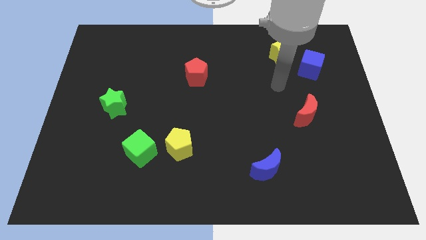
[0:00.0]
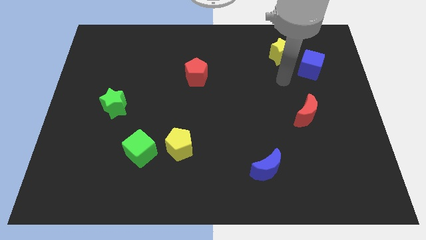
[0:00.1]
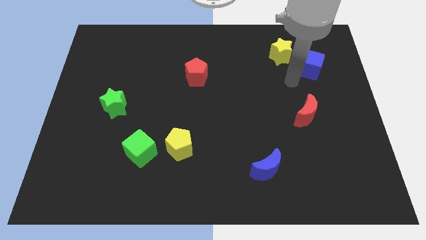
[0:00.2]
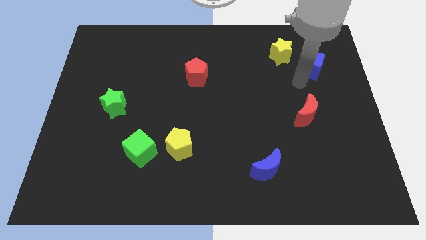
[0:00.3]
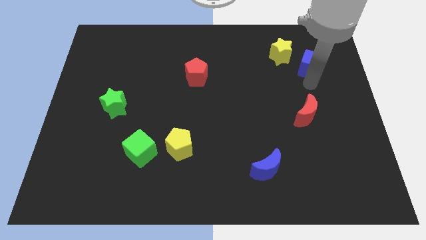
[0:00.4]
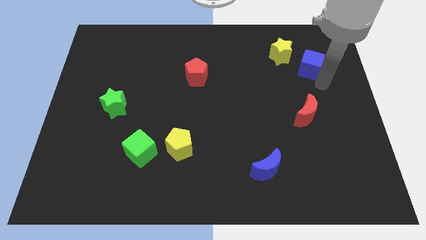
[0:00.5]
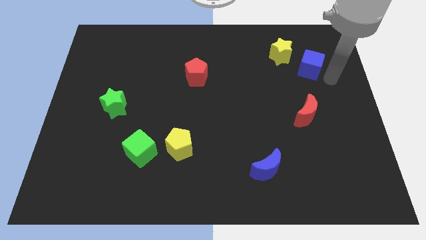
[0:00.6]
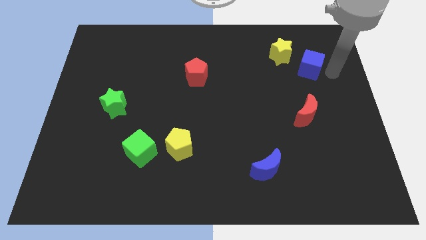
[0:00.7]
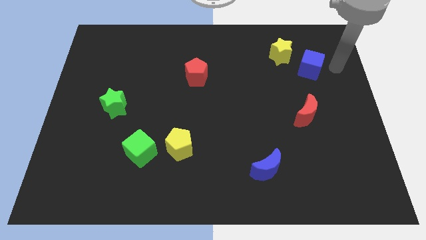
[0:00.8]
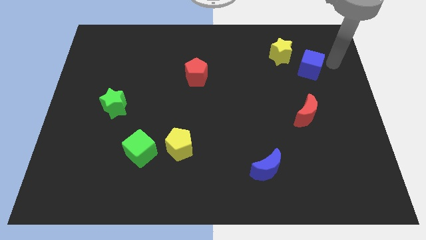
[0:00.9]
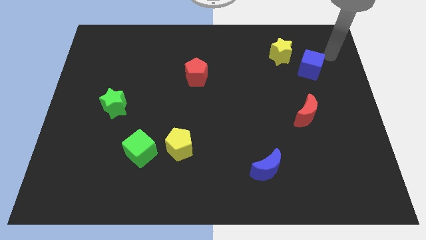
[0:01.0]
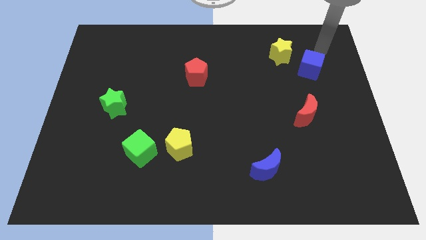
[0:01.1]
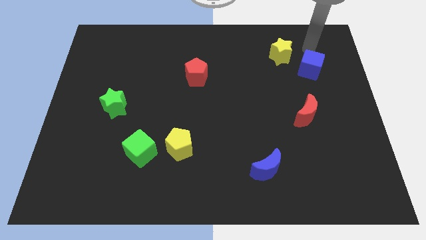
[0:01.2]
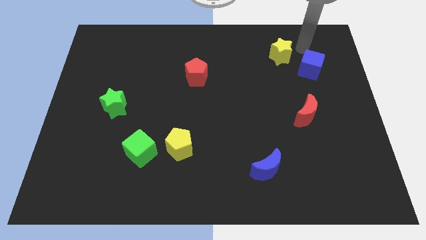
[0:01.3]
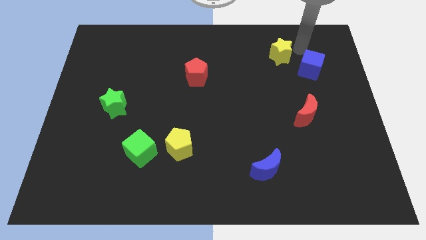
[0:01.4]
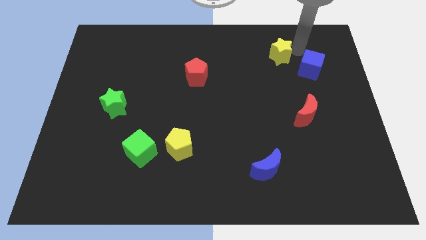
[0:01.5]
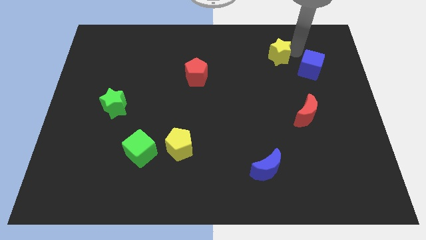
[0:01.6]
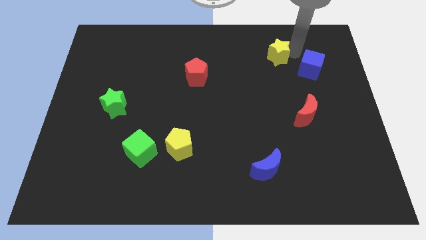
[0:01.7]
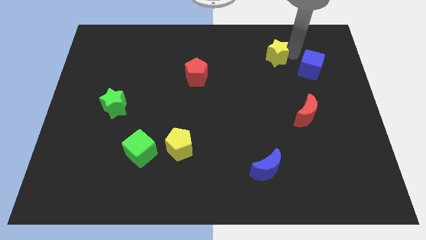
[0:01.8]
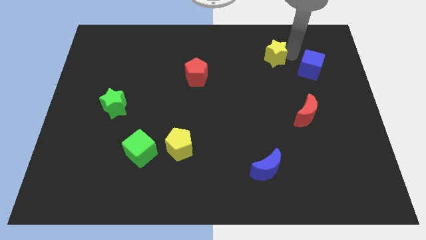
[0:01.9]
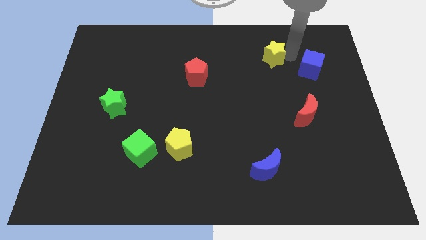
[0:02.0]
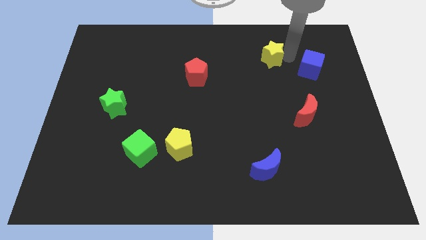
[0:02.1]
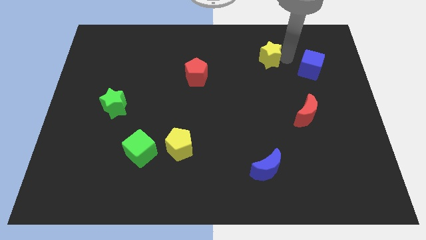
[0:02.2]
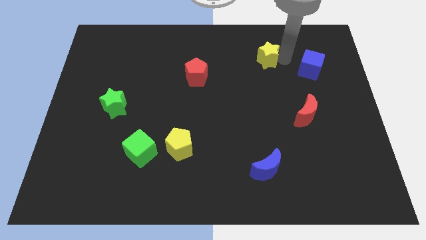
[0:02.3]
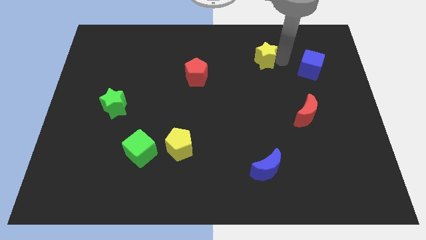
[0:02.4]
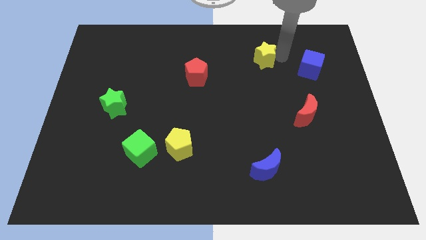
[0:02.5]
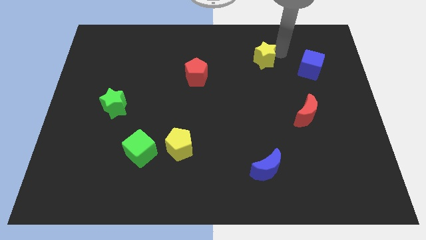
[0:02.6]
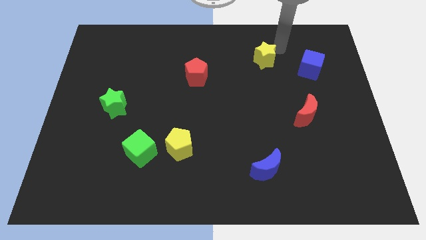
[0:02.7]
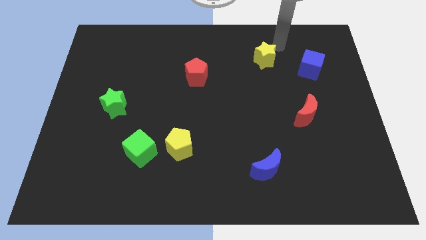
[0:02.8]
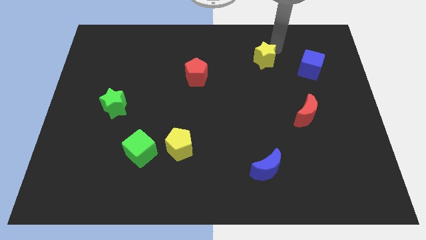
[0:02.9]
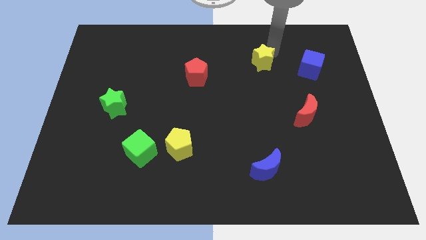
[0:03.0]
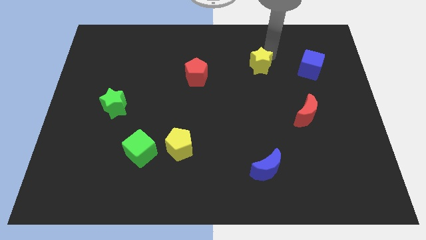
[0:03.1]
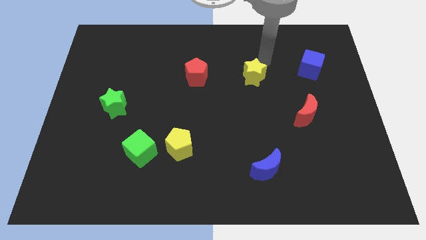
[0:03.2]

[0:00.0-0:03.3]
push the yellow star downwards and to the left diagonally slightly

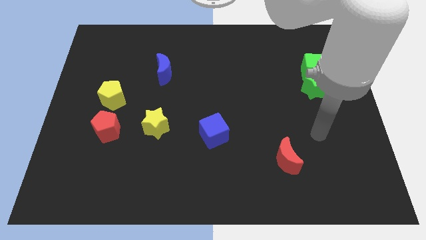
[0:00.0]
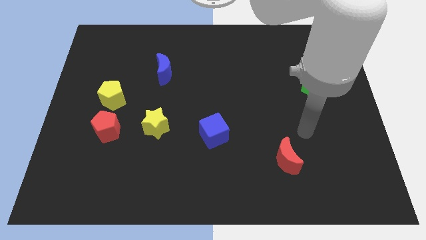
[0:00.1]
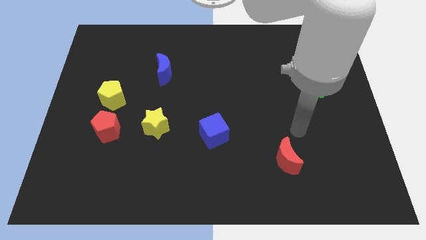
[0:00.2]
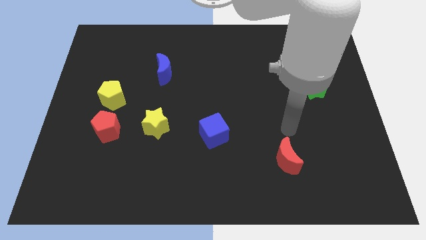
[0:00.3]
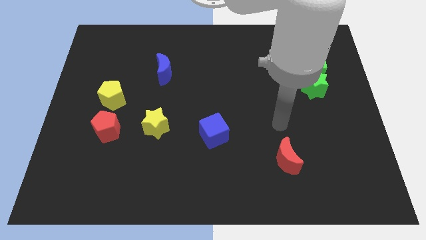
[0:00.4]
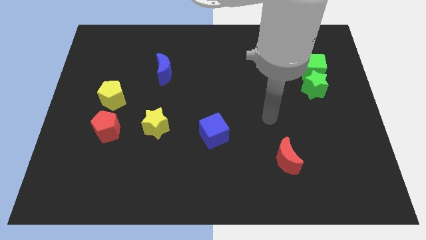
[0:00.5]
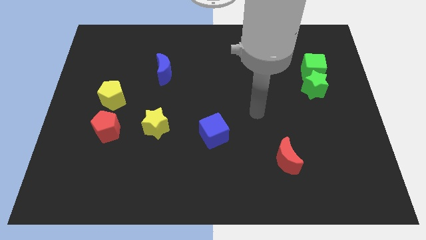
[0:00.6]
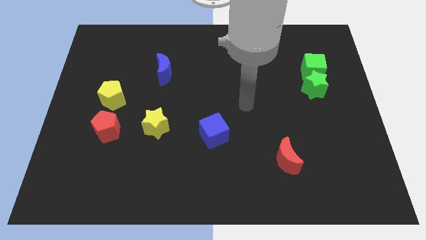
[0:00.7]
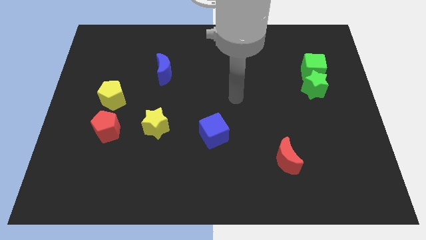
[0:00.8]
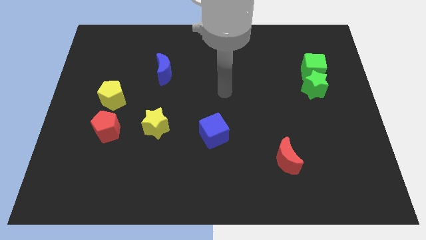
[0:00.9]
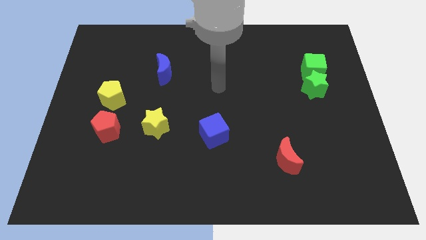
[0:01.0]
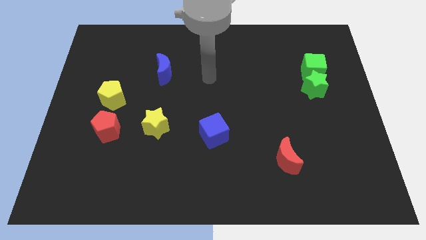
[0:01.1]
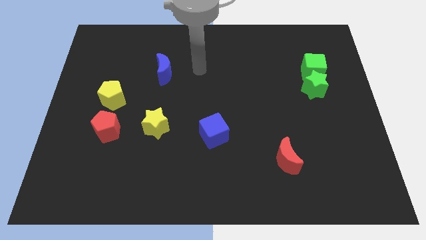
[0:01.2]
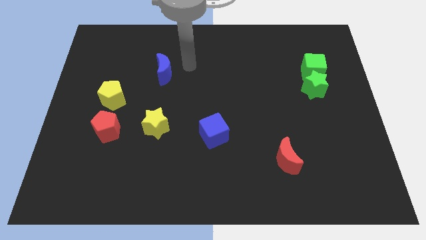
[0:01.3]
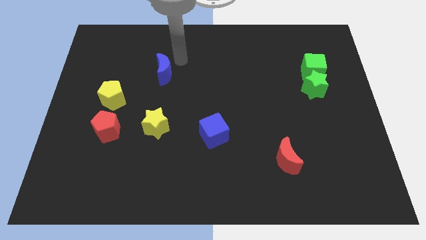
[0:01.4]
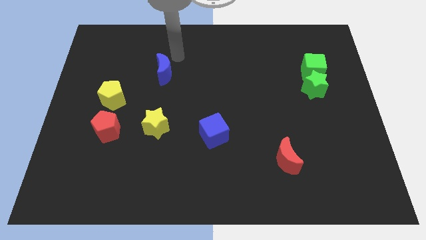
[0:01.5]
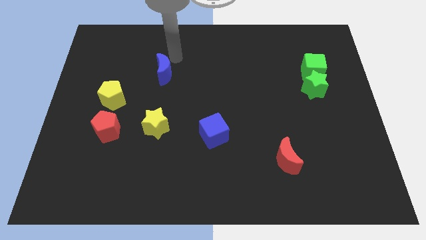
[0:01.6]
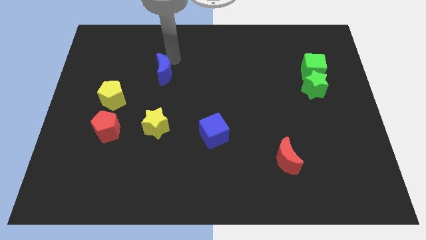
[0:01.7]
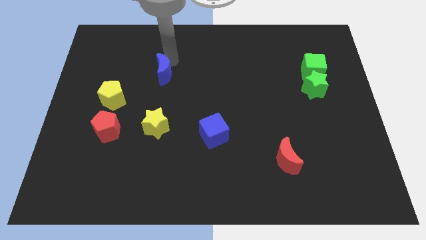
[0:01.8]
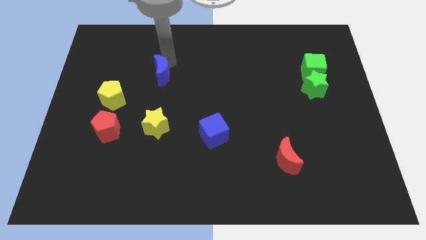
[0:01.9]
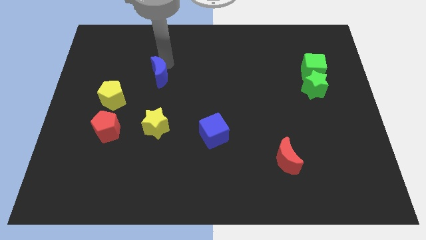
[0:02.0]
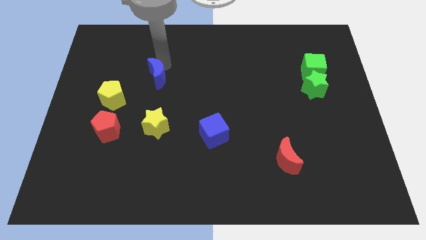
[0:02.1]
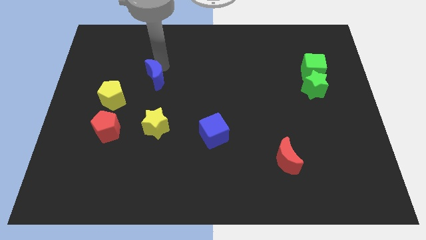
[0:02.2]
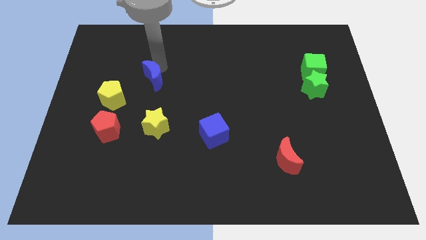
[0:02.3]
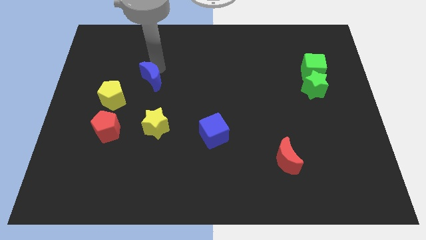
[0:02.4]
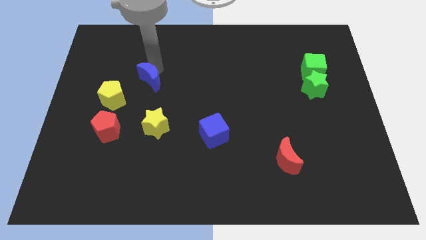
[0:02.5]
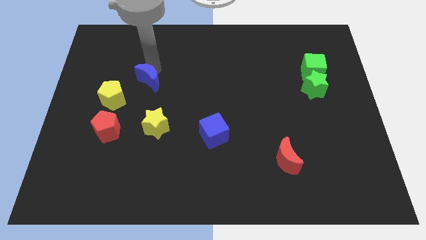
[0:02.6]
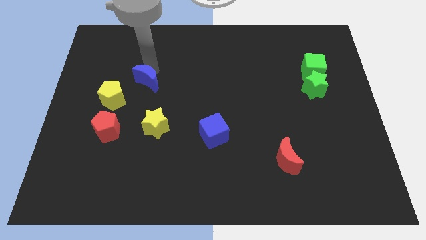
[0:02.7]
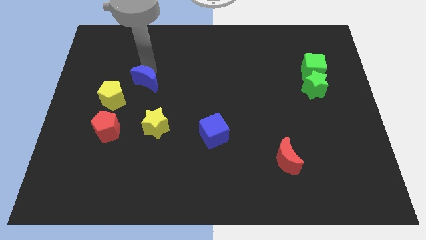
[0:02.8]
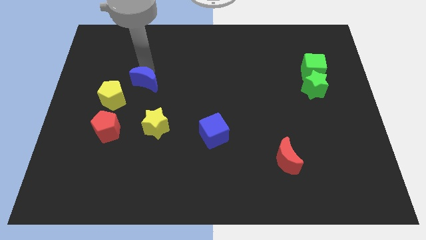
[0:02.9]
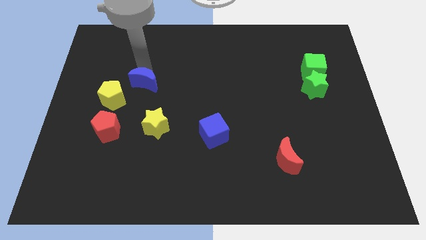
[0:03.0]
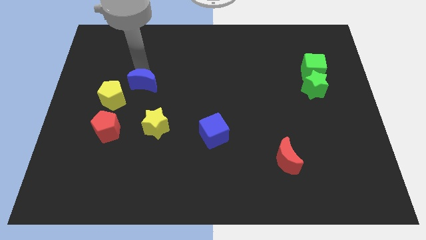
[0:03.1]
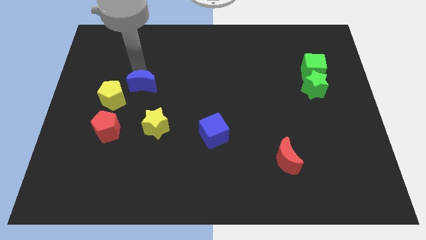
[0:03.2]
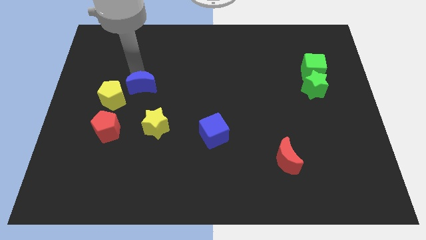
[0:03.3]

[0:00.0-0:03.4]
slightly slide the blue moon down and to the left

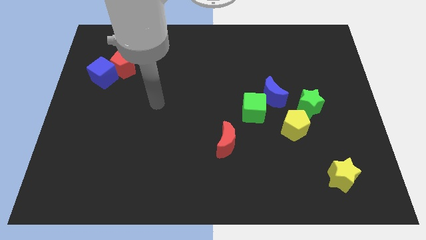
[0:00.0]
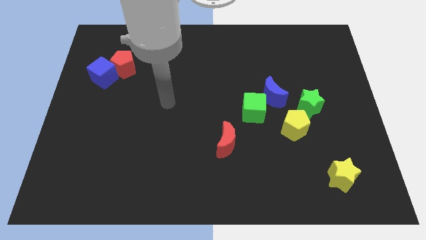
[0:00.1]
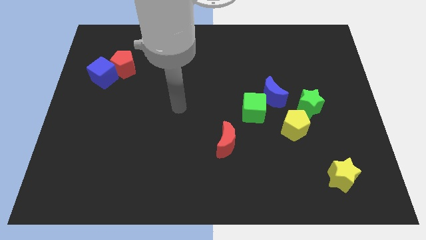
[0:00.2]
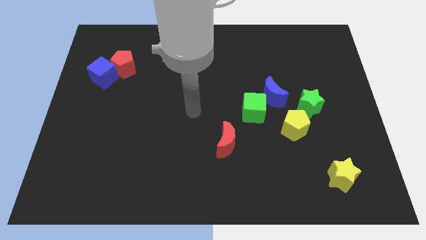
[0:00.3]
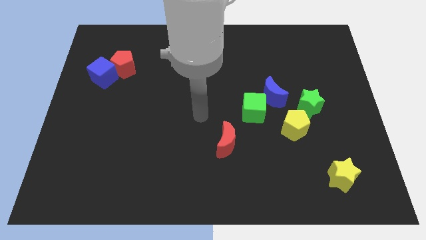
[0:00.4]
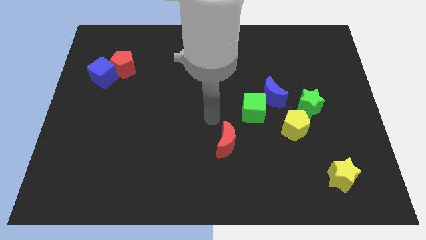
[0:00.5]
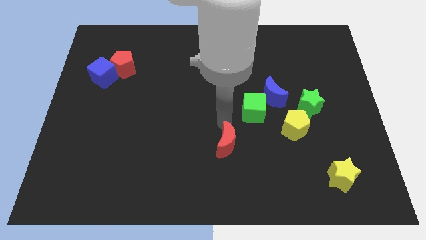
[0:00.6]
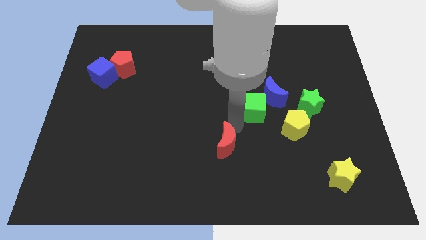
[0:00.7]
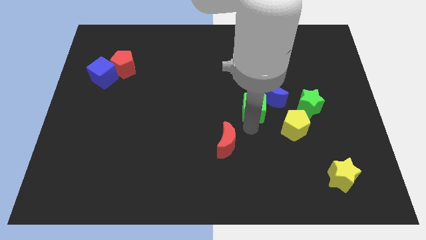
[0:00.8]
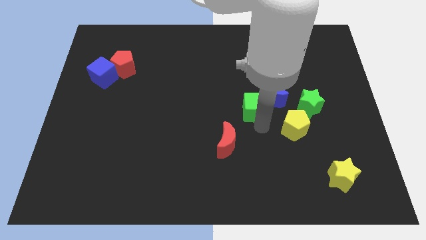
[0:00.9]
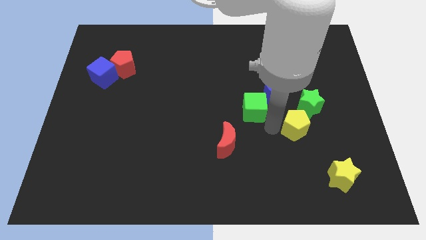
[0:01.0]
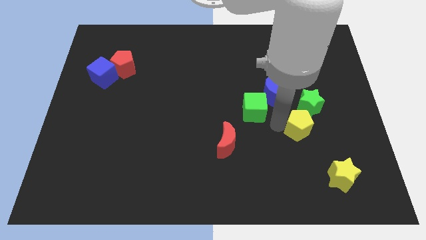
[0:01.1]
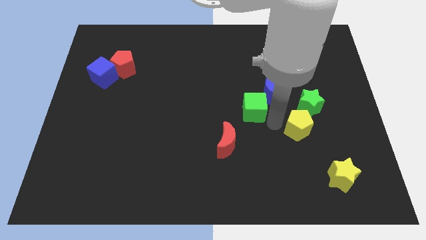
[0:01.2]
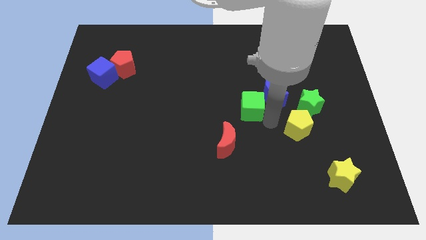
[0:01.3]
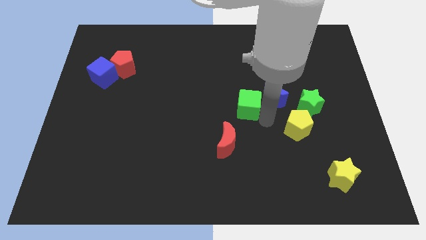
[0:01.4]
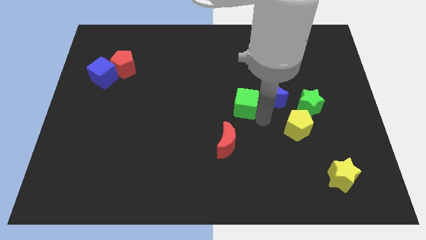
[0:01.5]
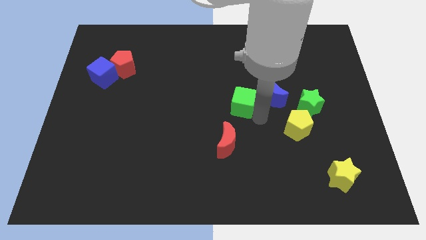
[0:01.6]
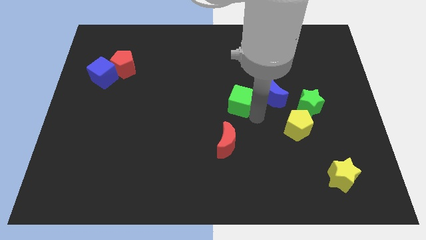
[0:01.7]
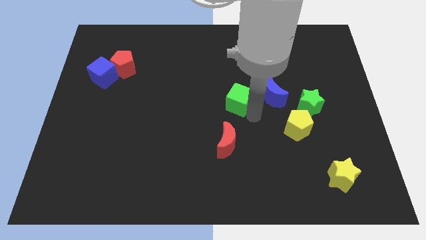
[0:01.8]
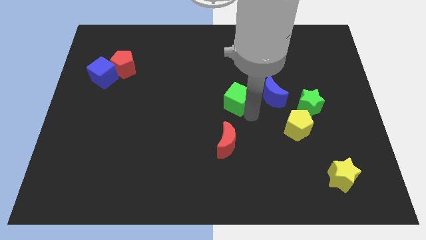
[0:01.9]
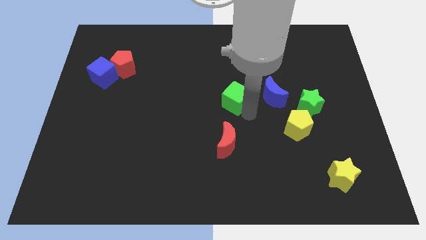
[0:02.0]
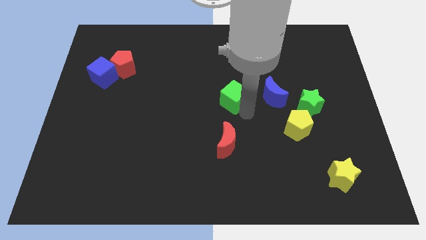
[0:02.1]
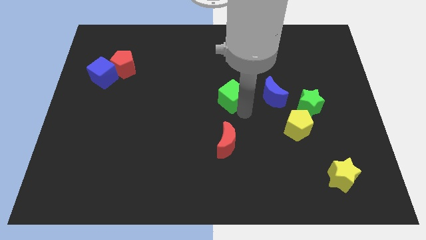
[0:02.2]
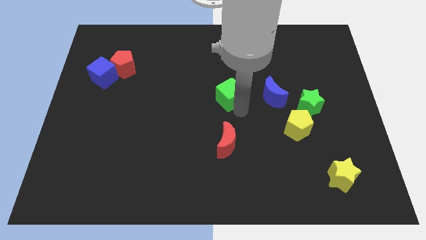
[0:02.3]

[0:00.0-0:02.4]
slightly push the green cube up and then left
